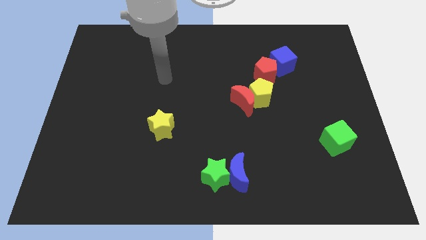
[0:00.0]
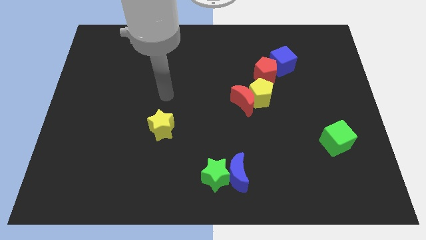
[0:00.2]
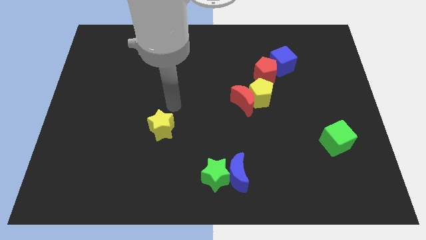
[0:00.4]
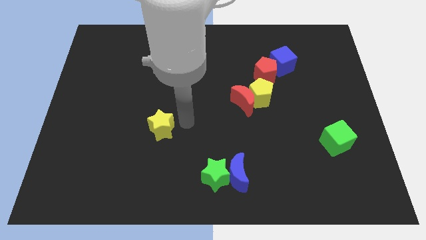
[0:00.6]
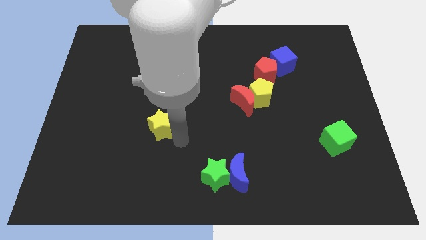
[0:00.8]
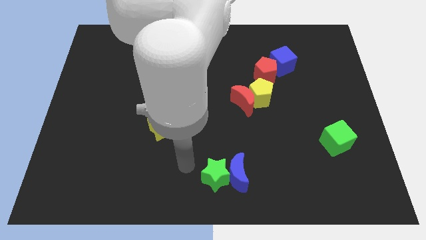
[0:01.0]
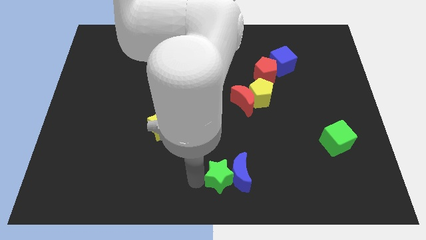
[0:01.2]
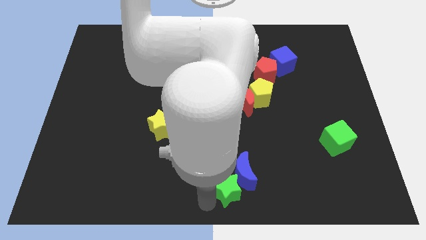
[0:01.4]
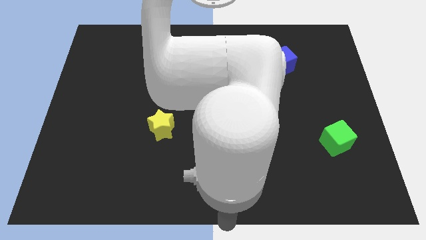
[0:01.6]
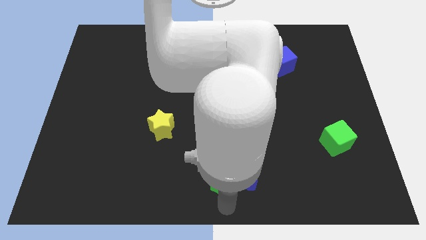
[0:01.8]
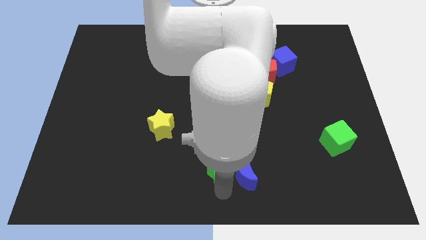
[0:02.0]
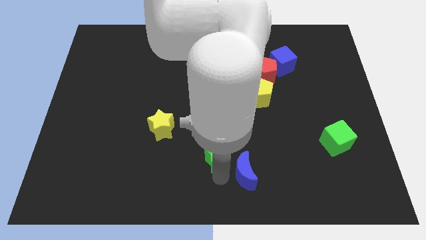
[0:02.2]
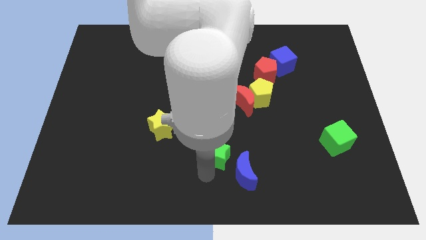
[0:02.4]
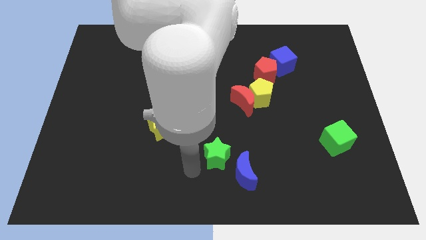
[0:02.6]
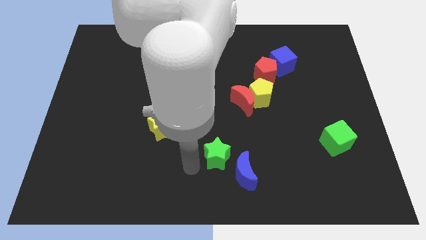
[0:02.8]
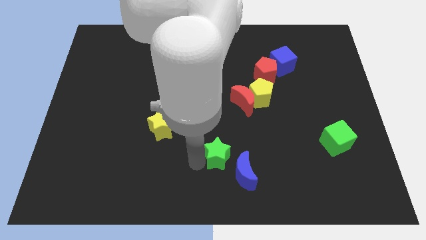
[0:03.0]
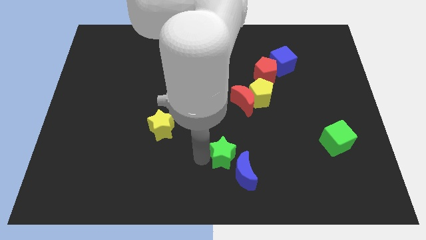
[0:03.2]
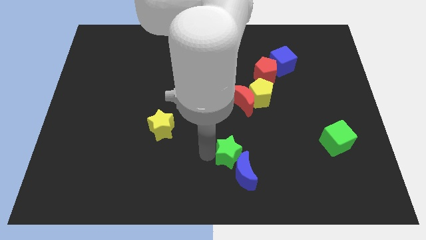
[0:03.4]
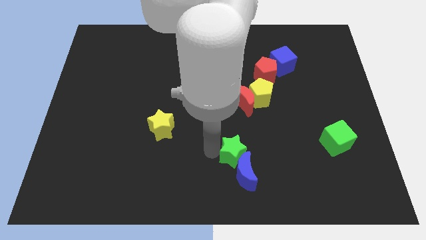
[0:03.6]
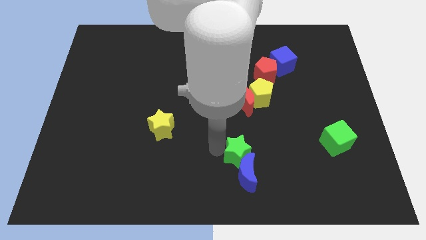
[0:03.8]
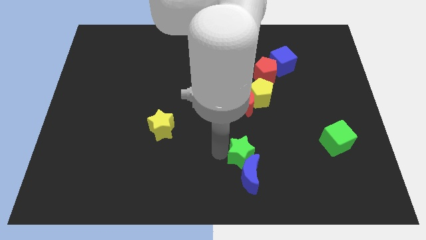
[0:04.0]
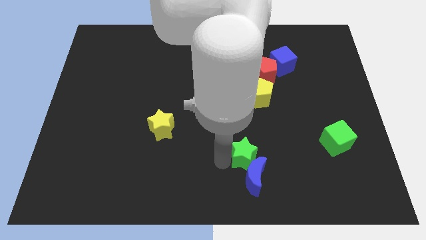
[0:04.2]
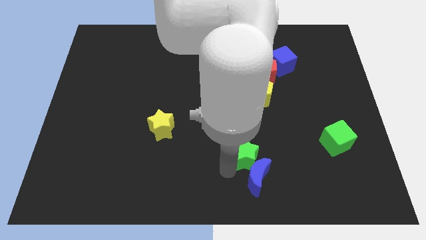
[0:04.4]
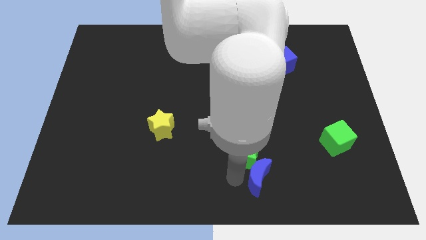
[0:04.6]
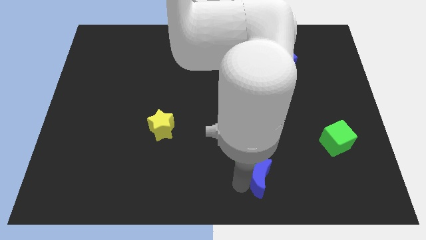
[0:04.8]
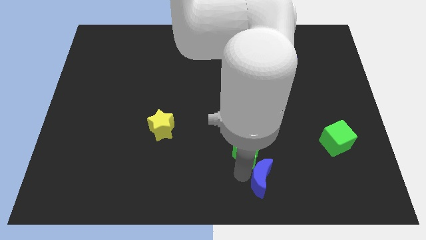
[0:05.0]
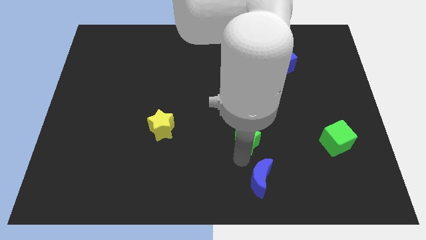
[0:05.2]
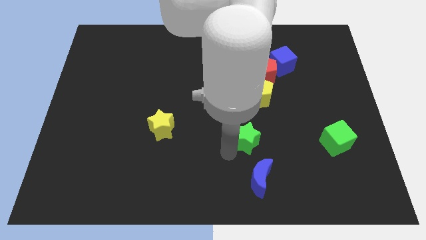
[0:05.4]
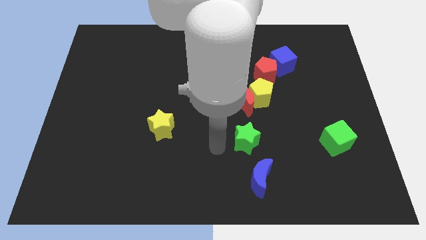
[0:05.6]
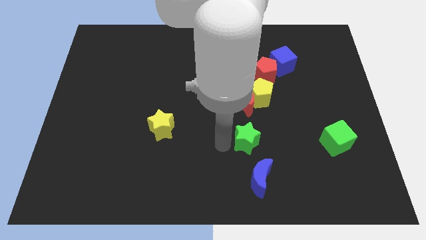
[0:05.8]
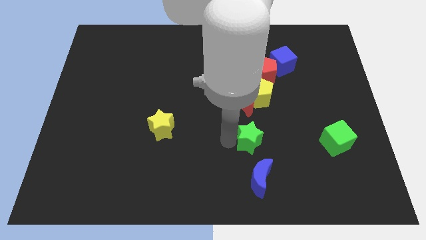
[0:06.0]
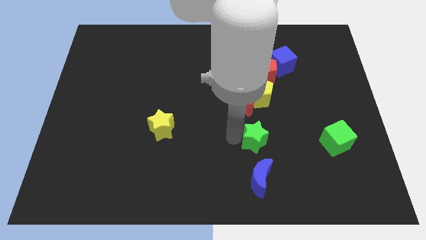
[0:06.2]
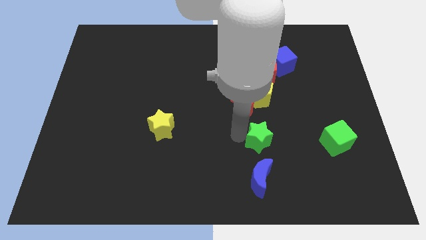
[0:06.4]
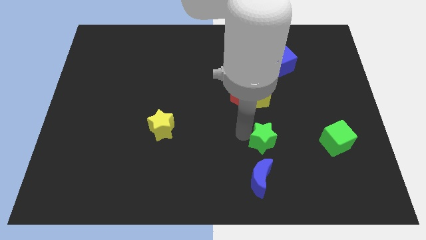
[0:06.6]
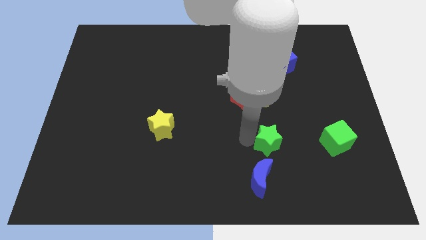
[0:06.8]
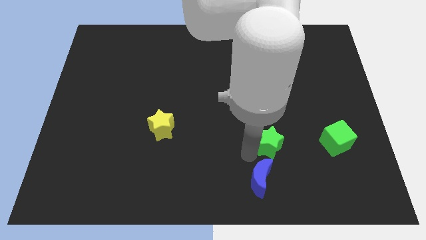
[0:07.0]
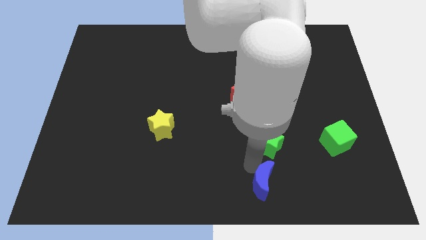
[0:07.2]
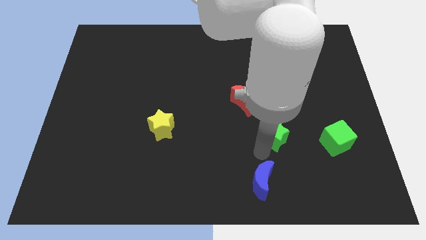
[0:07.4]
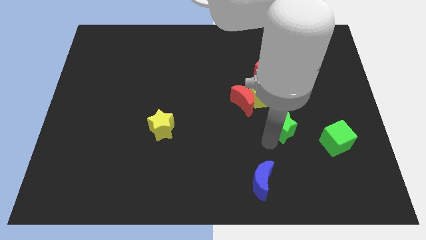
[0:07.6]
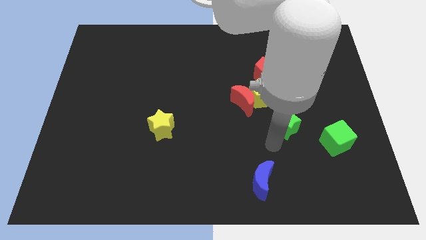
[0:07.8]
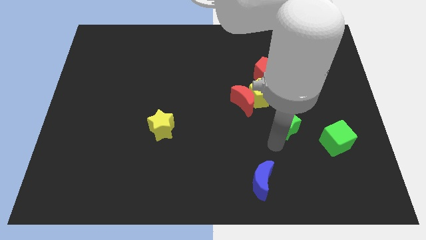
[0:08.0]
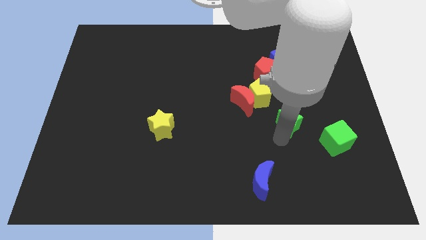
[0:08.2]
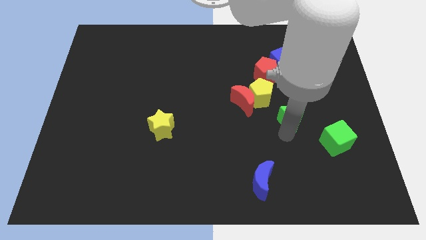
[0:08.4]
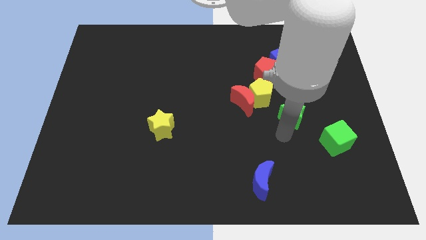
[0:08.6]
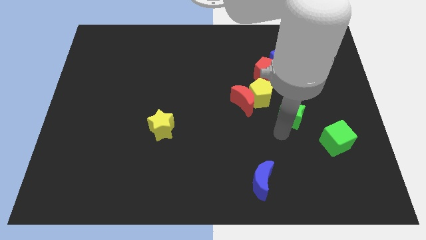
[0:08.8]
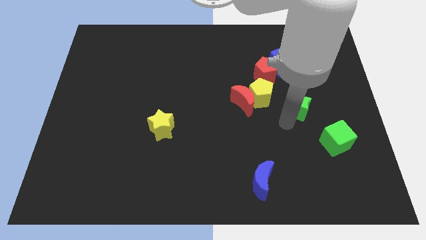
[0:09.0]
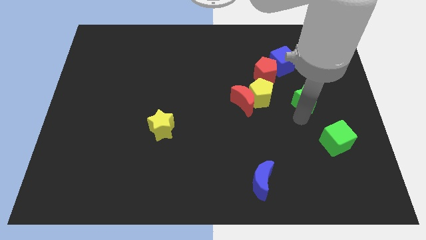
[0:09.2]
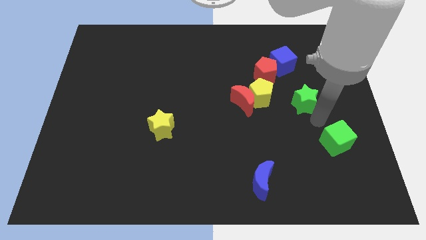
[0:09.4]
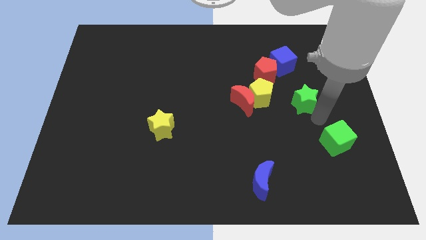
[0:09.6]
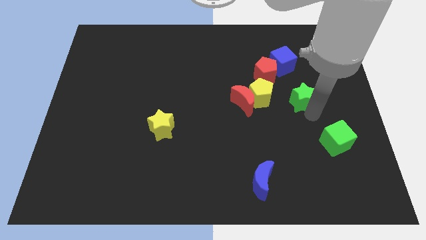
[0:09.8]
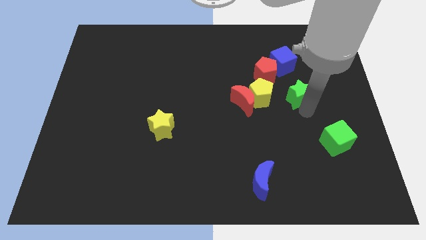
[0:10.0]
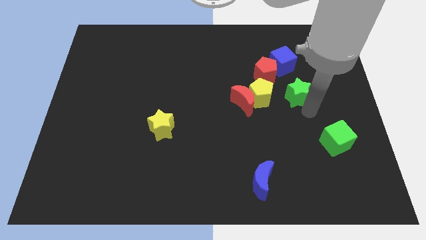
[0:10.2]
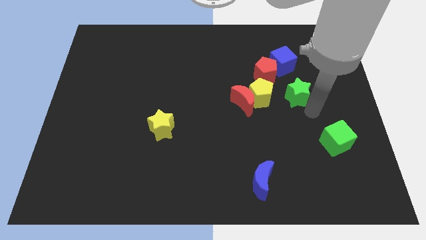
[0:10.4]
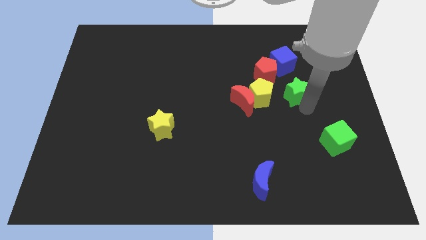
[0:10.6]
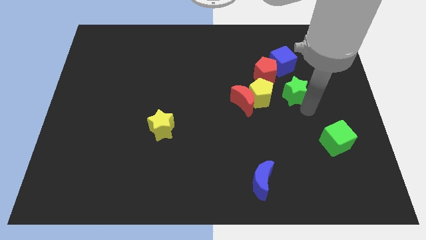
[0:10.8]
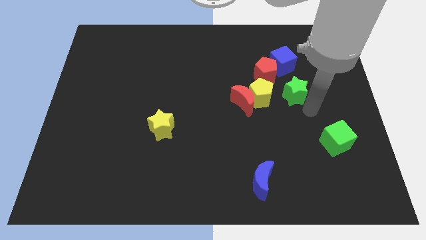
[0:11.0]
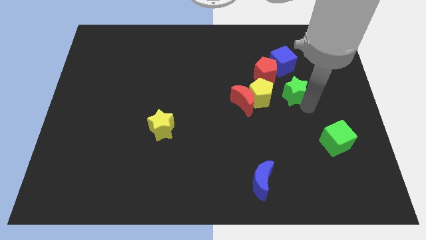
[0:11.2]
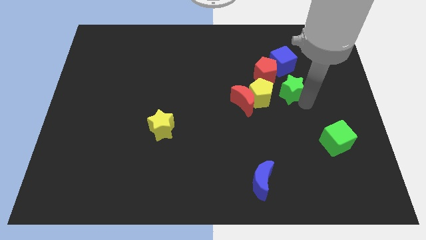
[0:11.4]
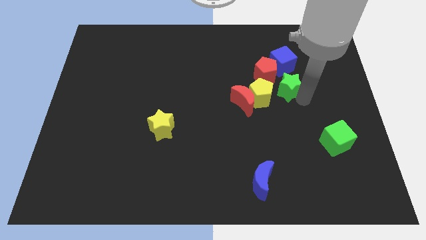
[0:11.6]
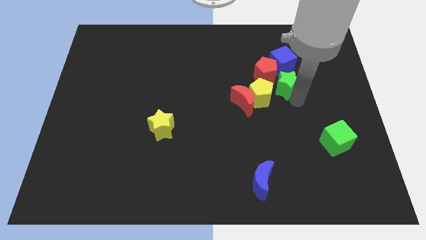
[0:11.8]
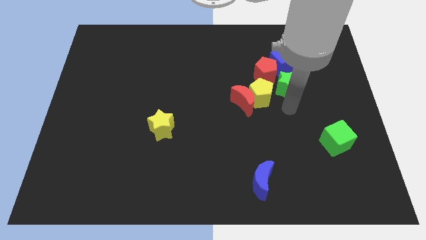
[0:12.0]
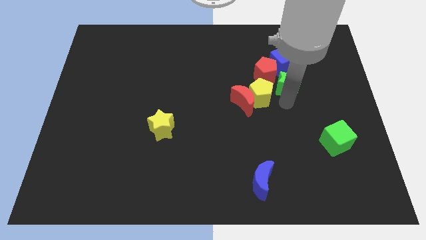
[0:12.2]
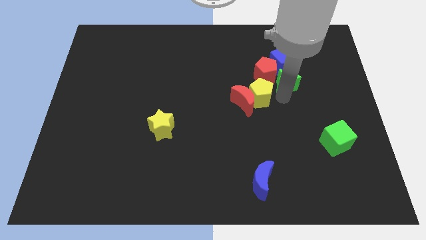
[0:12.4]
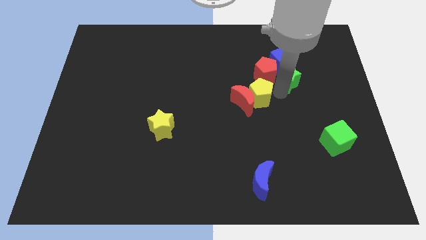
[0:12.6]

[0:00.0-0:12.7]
move the green star towards the blue cube

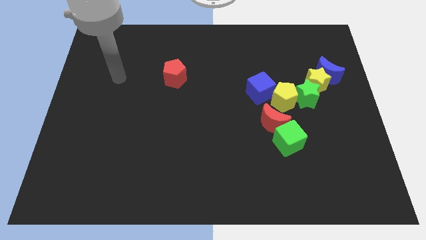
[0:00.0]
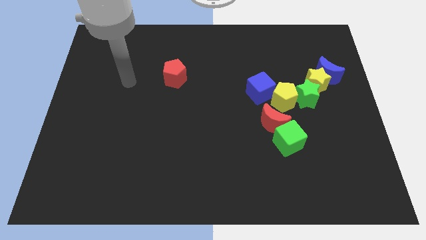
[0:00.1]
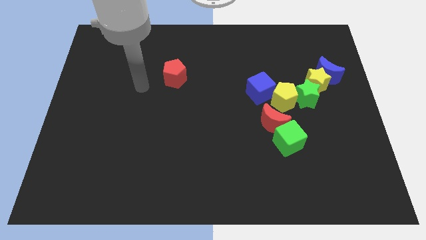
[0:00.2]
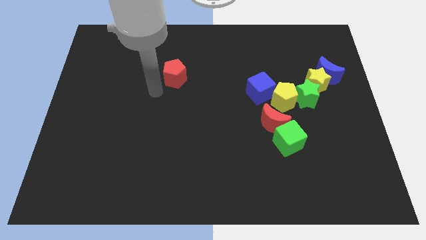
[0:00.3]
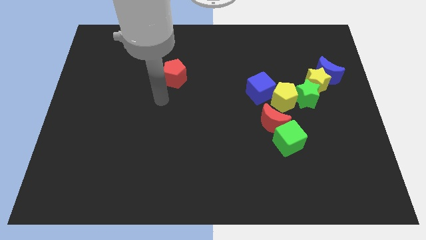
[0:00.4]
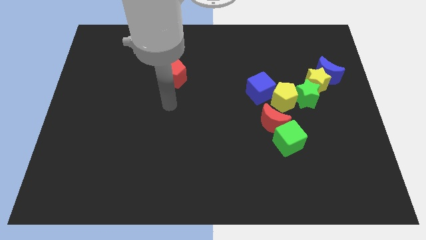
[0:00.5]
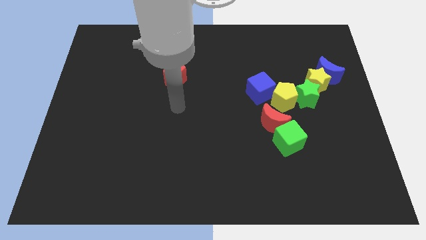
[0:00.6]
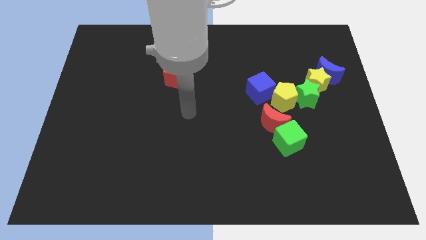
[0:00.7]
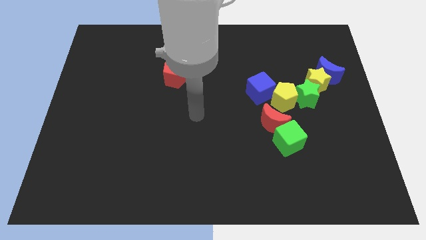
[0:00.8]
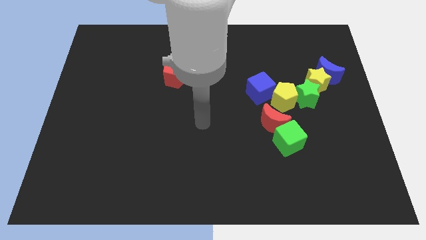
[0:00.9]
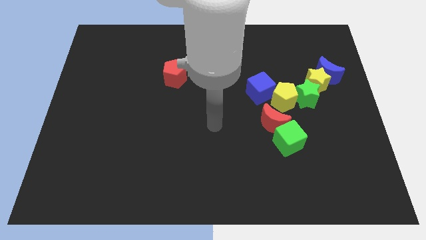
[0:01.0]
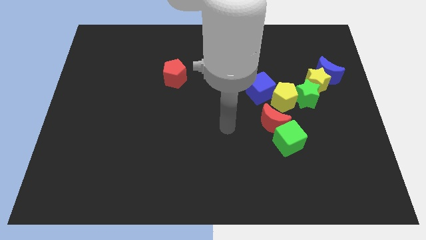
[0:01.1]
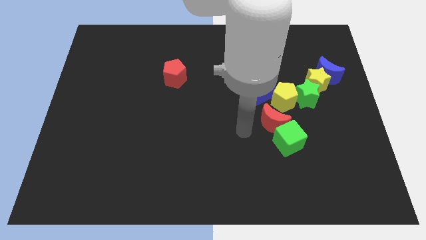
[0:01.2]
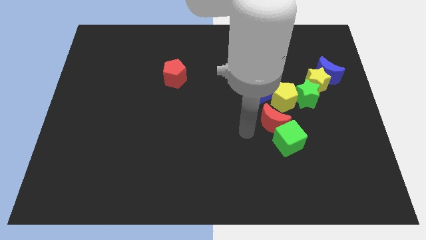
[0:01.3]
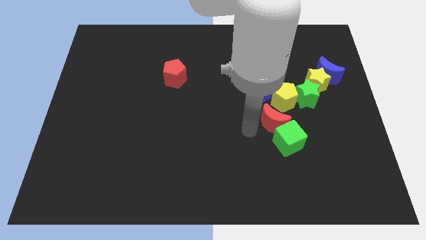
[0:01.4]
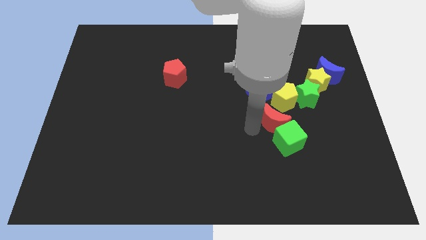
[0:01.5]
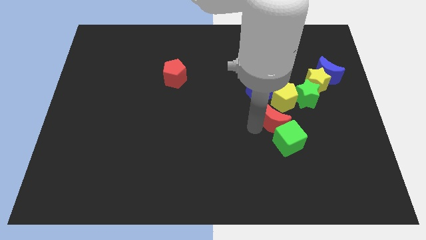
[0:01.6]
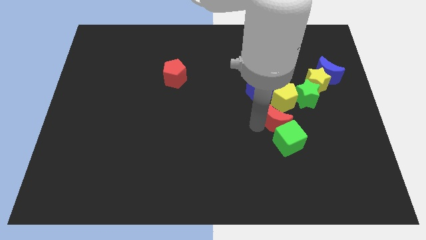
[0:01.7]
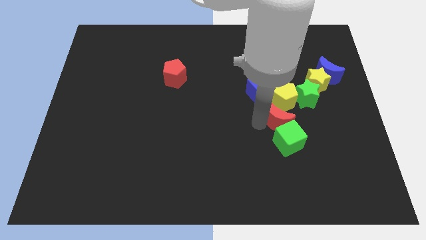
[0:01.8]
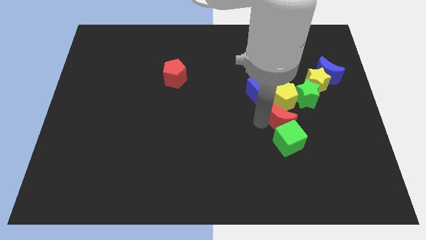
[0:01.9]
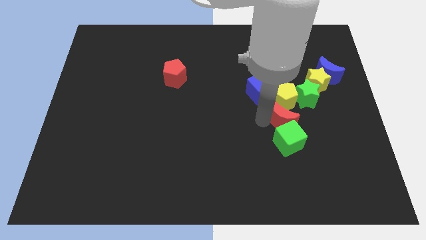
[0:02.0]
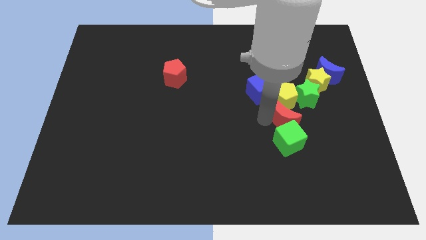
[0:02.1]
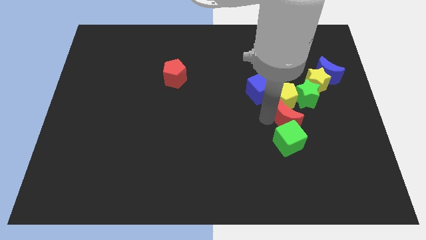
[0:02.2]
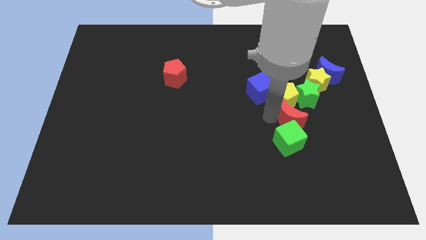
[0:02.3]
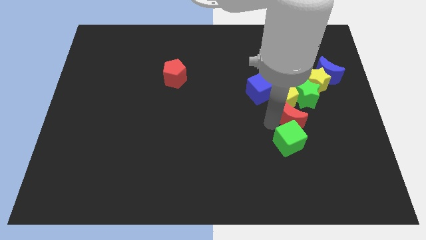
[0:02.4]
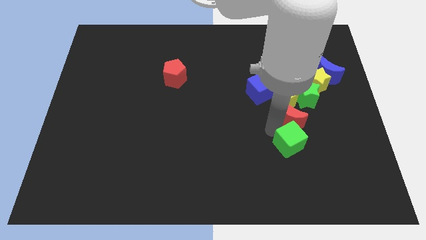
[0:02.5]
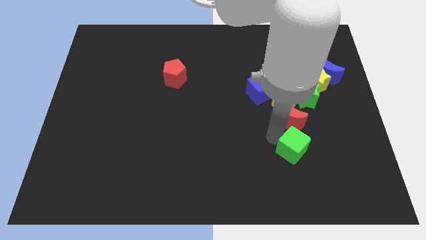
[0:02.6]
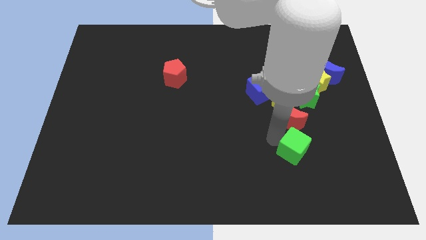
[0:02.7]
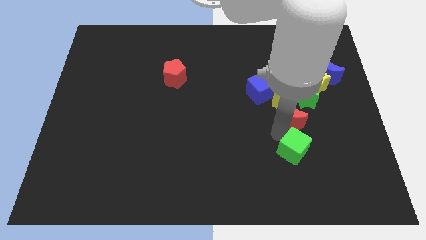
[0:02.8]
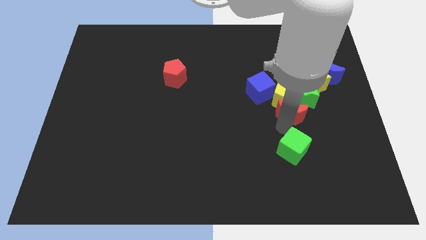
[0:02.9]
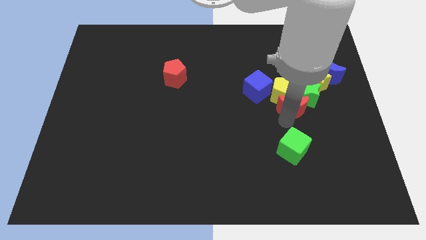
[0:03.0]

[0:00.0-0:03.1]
push the red moon close to the green star
